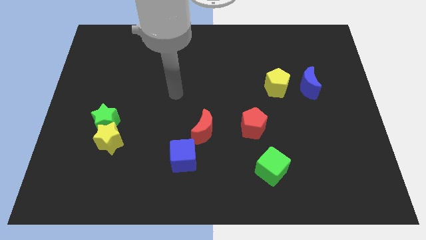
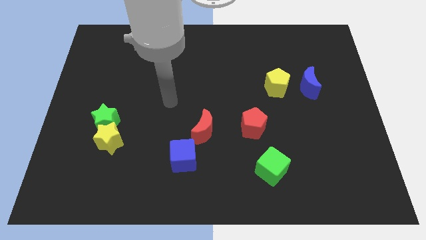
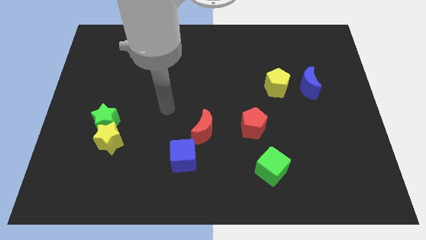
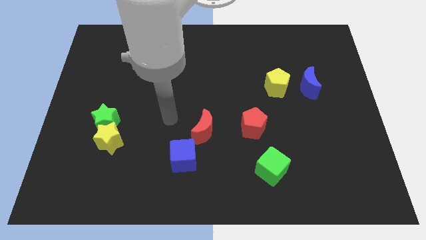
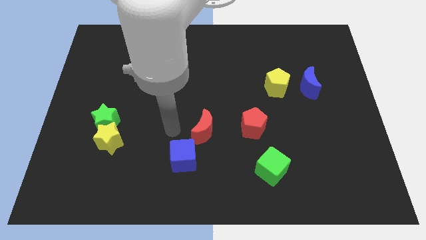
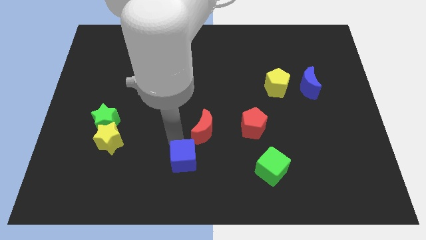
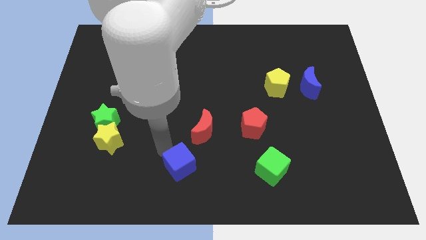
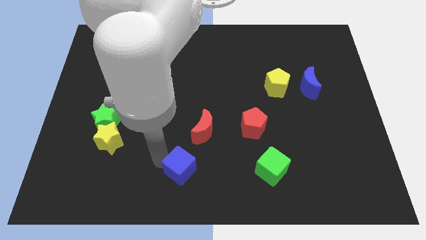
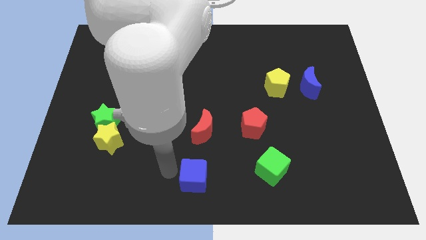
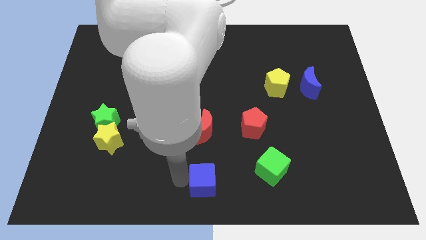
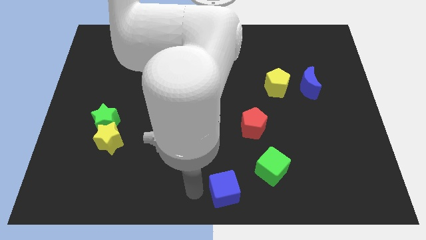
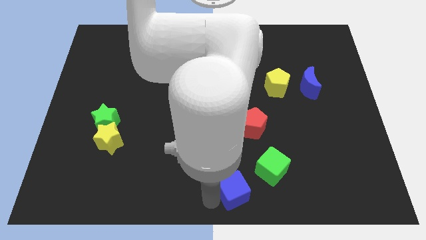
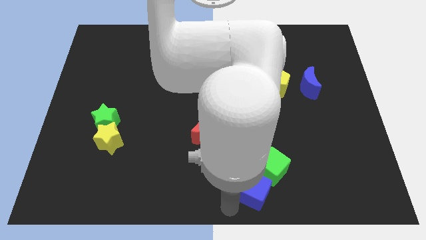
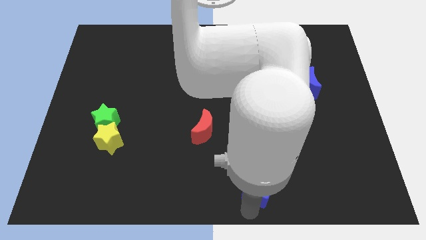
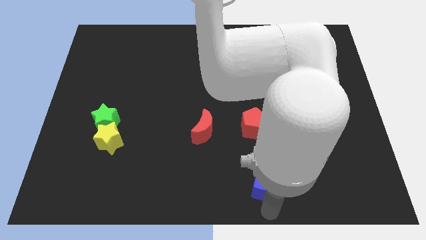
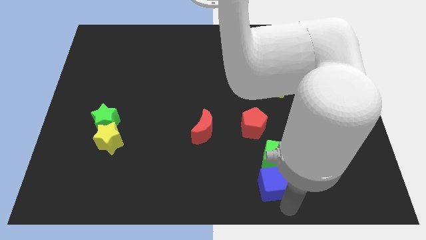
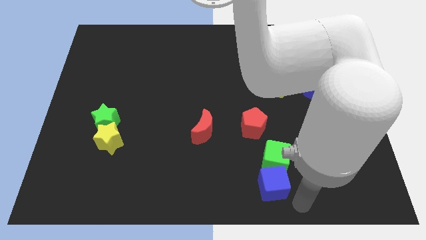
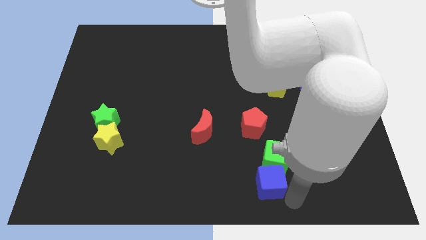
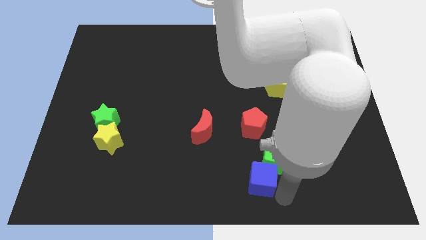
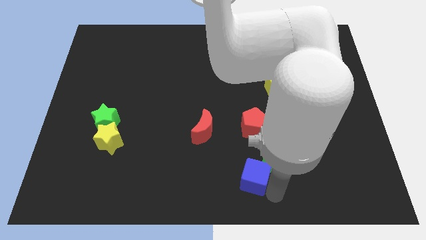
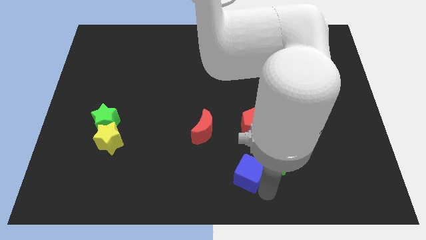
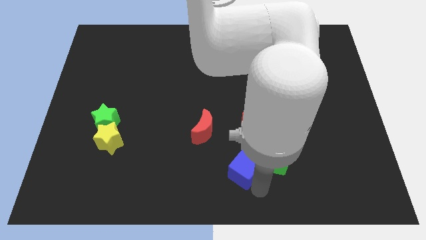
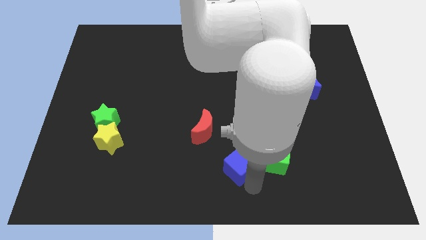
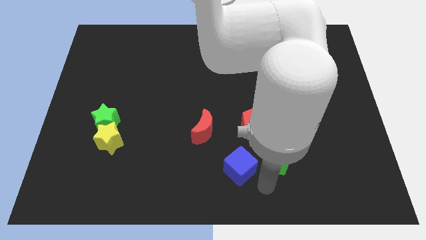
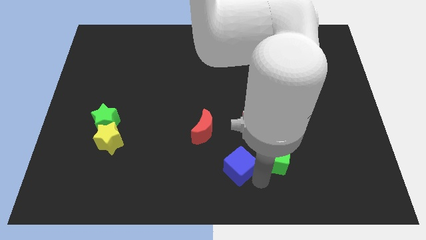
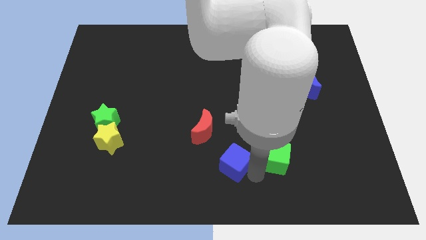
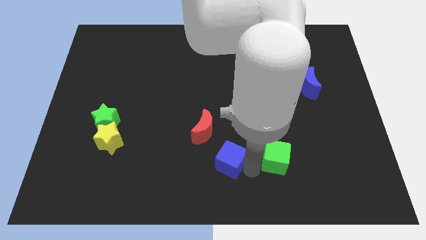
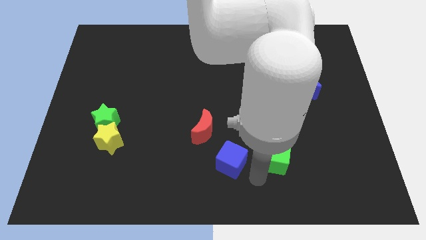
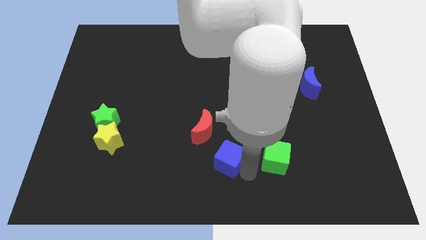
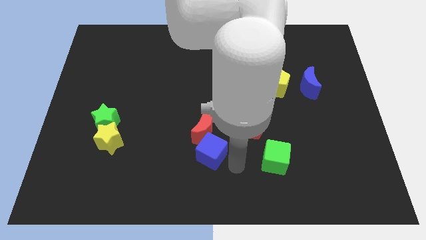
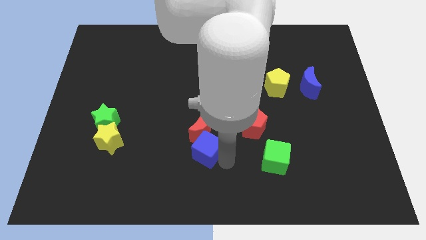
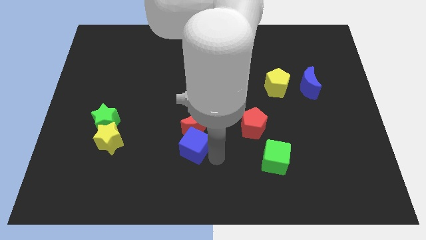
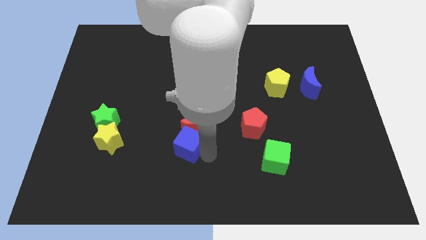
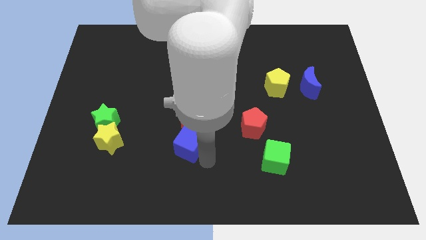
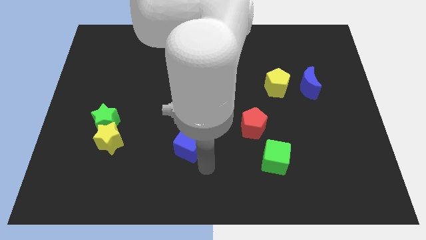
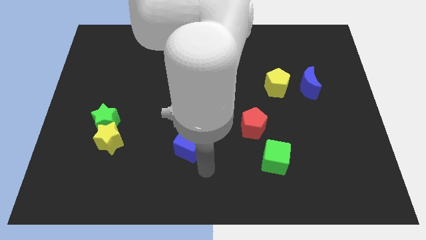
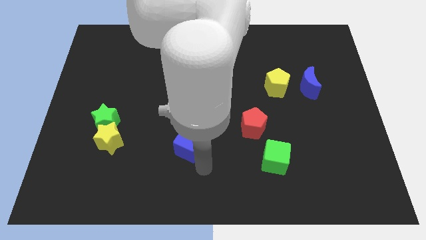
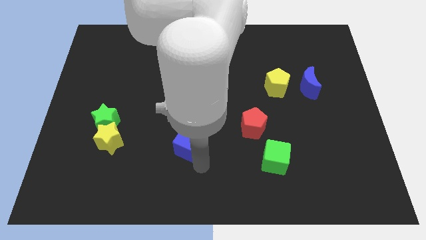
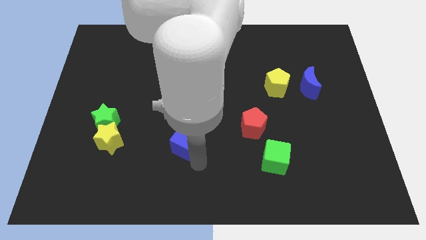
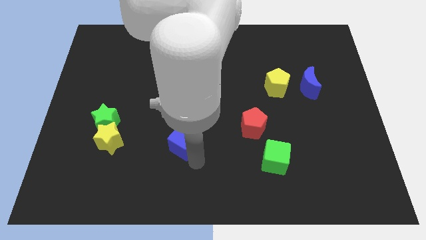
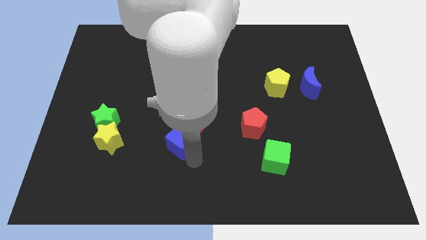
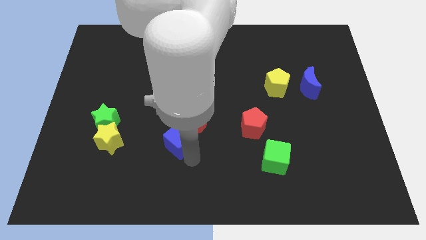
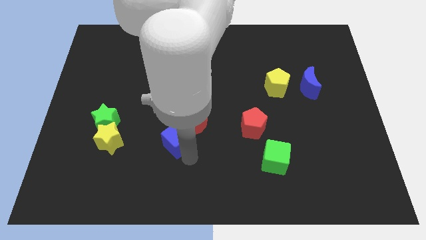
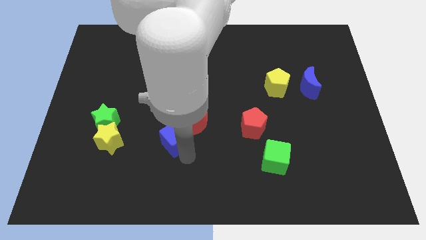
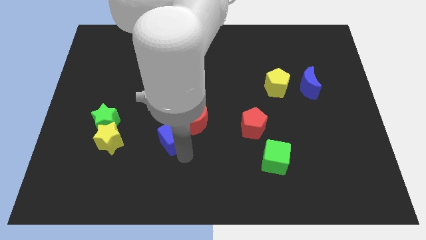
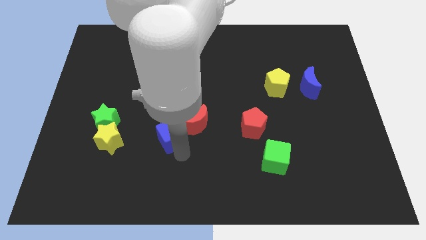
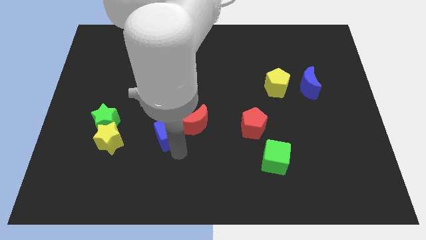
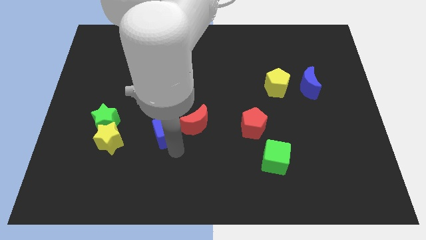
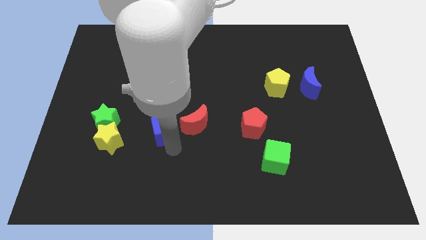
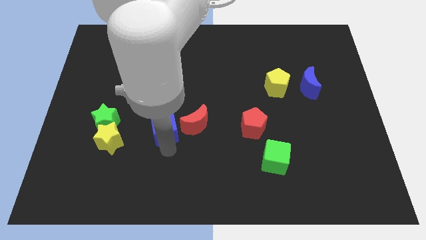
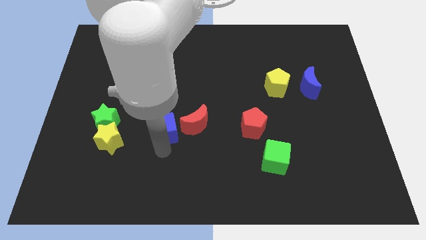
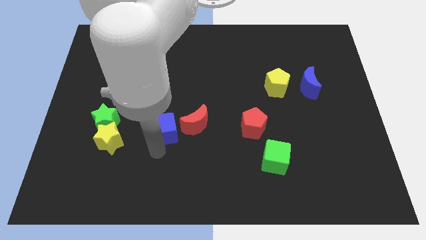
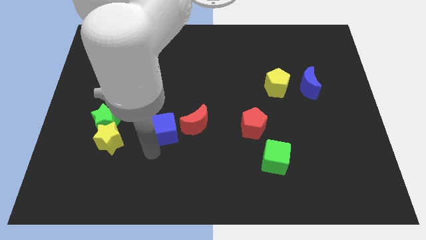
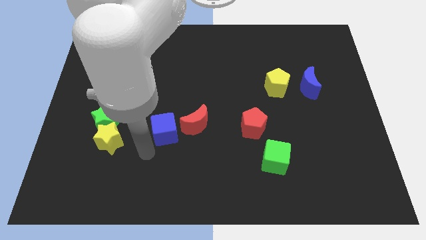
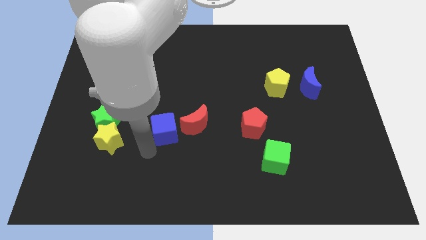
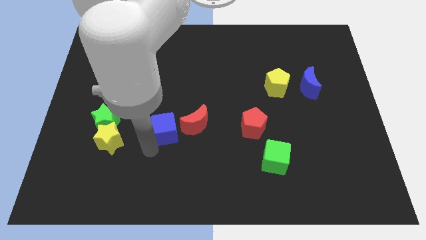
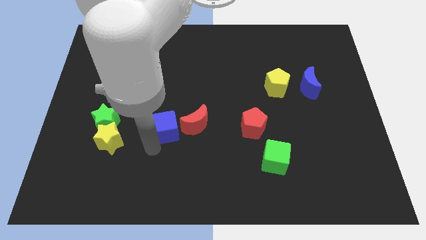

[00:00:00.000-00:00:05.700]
slide the blue cube a little bit upwards

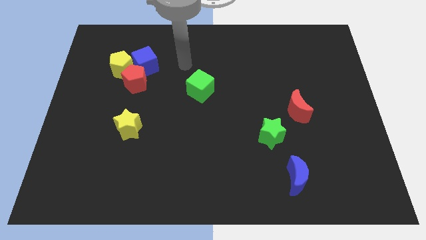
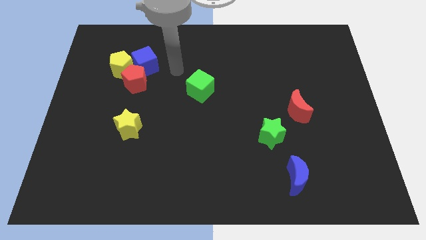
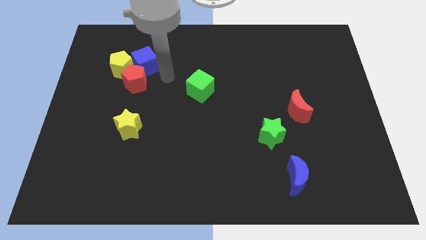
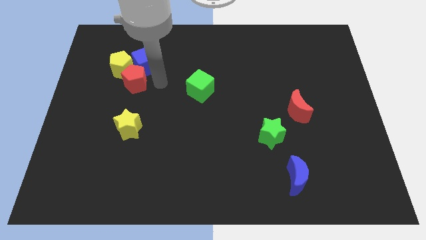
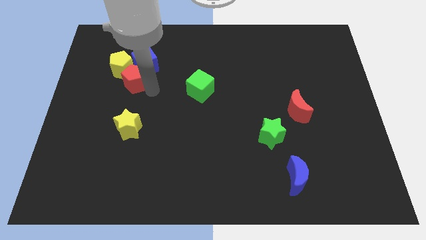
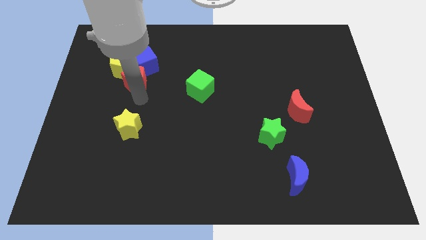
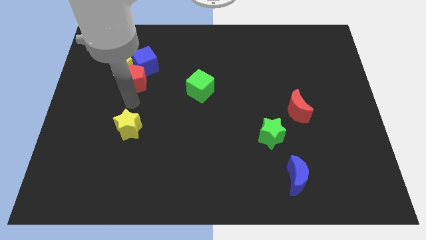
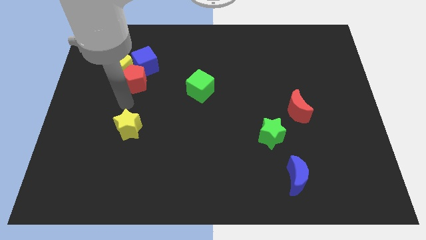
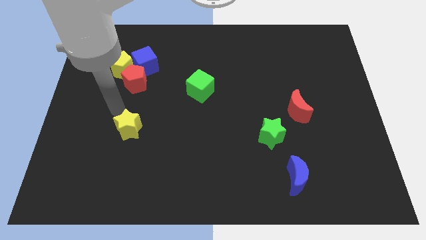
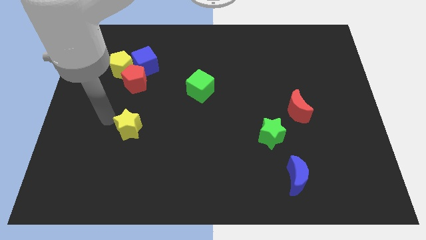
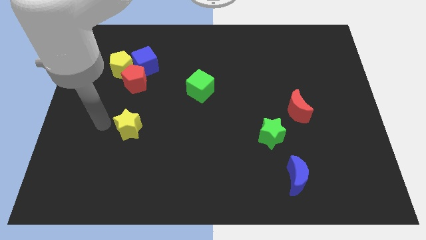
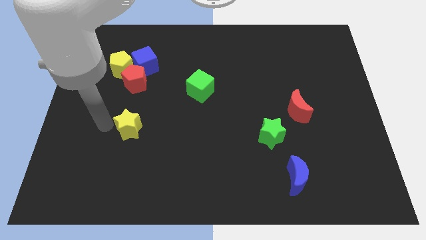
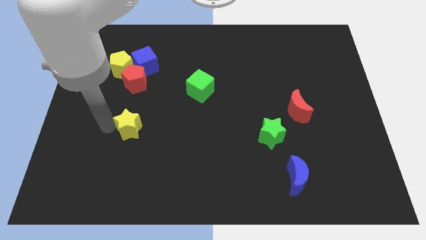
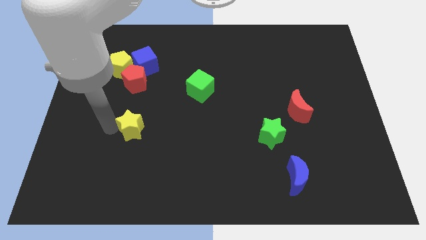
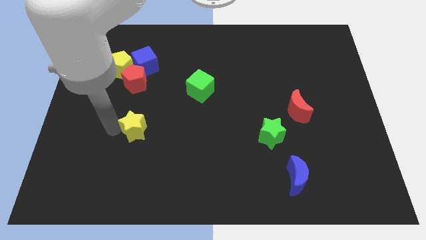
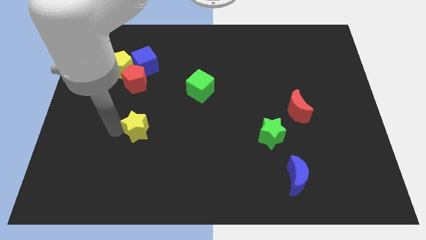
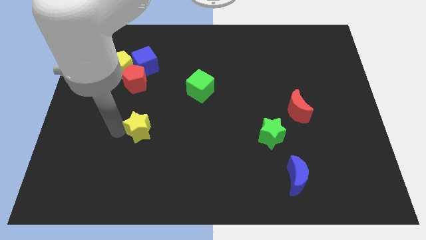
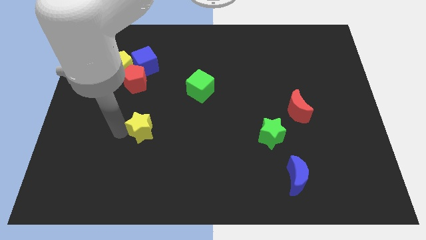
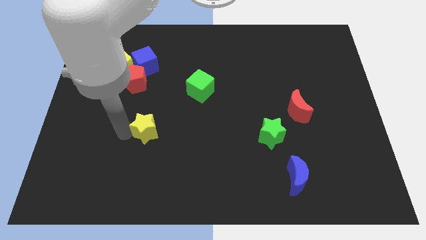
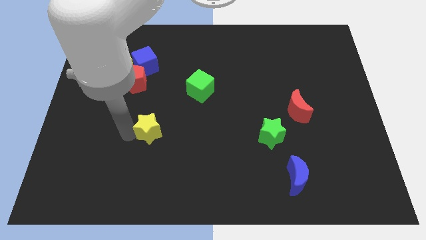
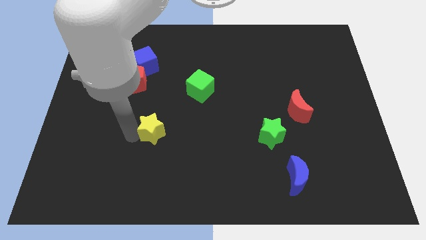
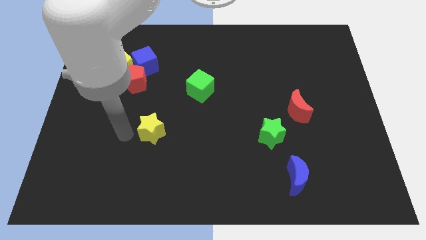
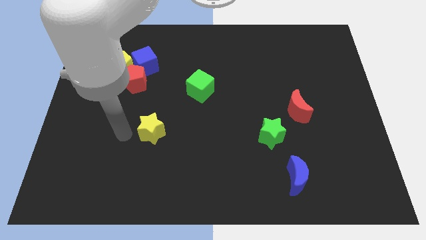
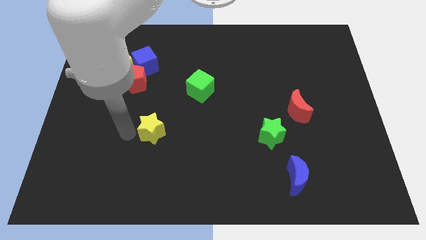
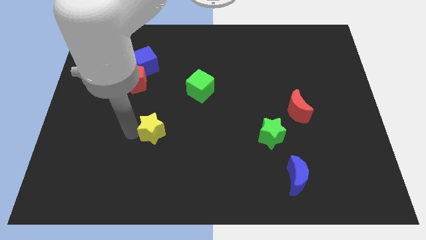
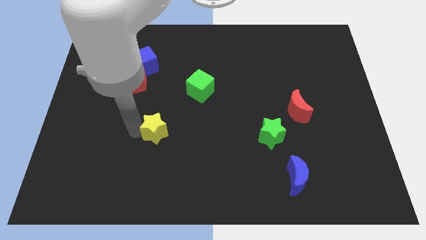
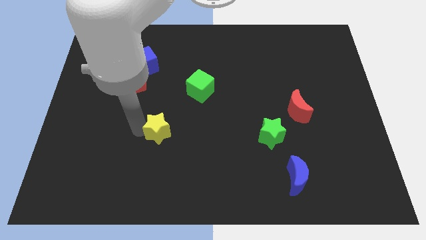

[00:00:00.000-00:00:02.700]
move the yellow star right somewhat
